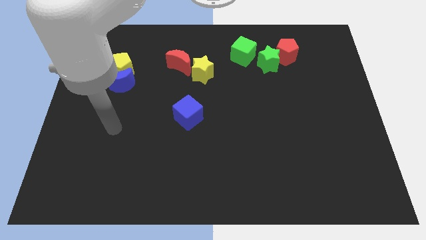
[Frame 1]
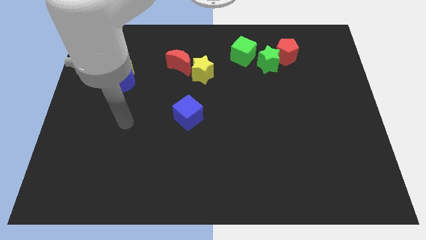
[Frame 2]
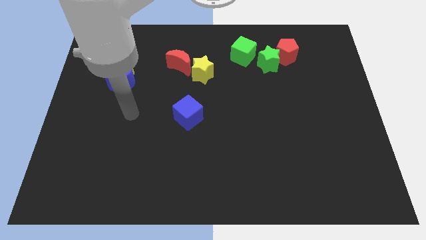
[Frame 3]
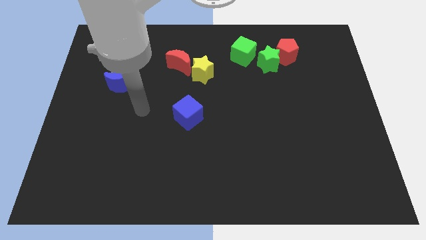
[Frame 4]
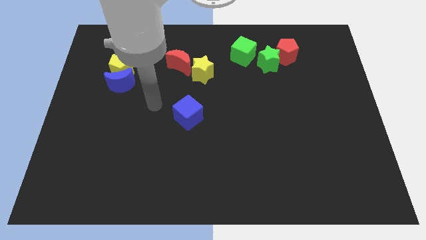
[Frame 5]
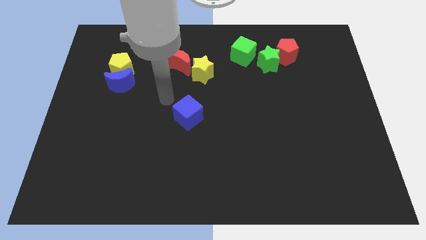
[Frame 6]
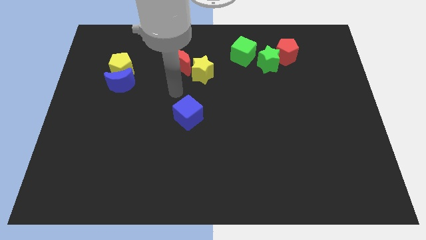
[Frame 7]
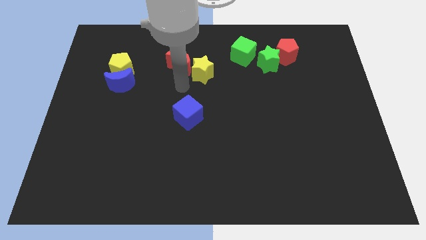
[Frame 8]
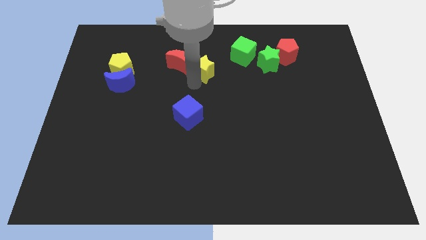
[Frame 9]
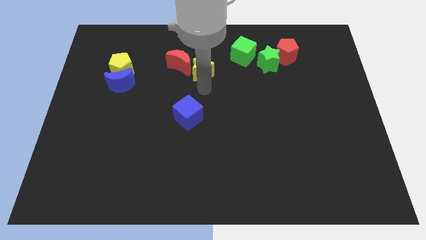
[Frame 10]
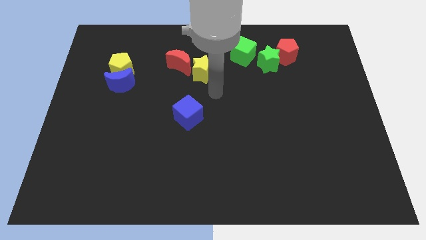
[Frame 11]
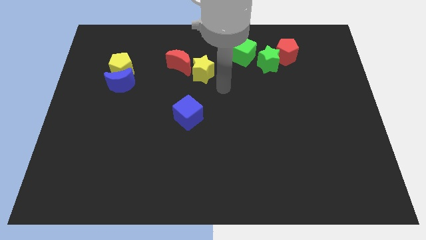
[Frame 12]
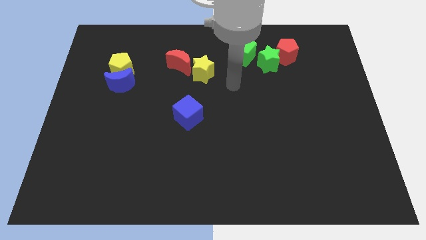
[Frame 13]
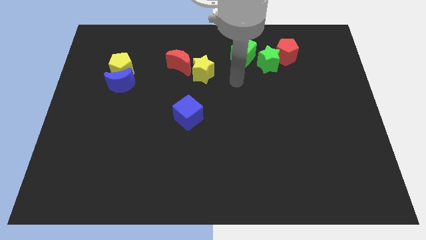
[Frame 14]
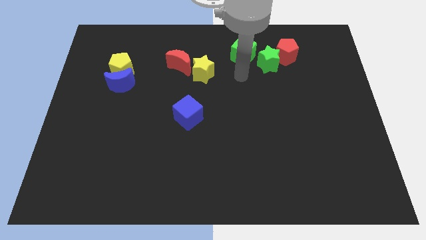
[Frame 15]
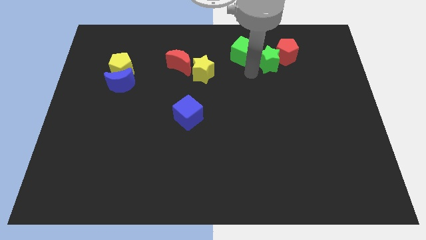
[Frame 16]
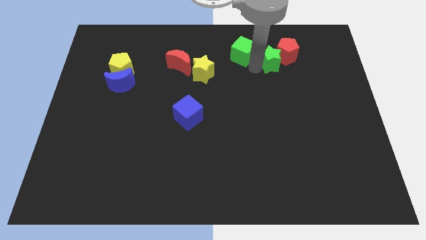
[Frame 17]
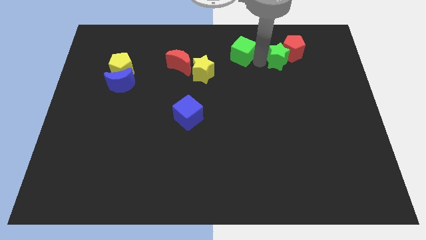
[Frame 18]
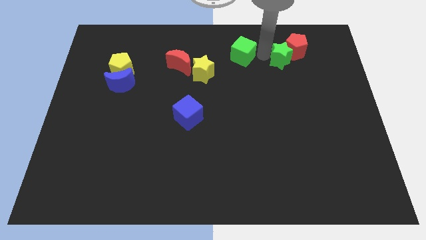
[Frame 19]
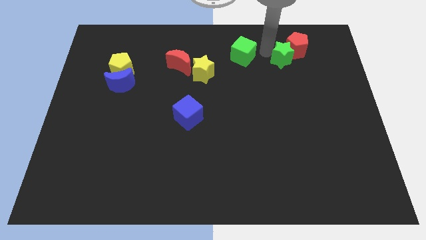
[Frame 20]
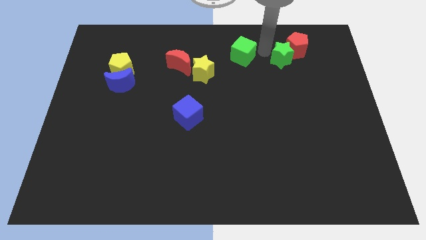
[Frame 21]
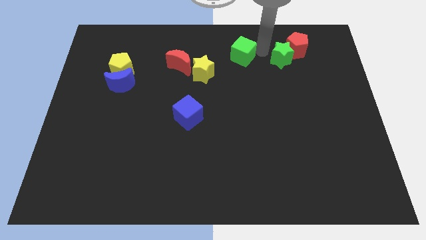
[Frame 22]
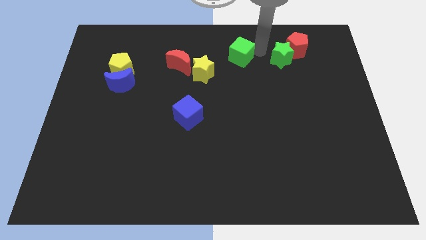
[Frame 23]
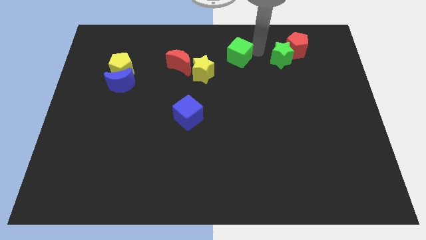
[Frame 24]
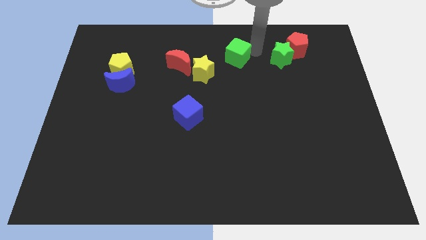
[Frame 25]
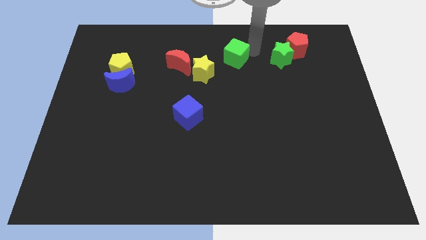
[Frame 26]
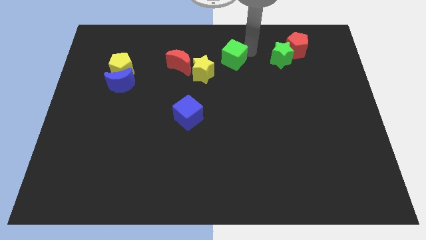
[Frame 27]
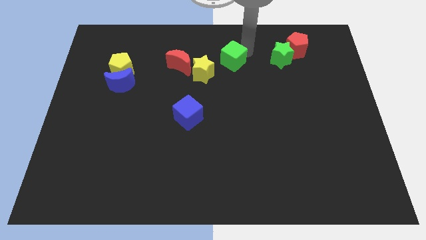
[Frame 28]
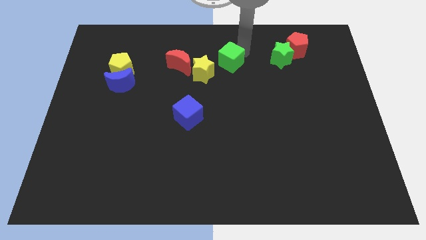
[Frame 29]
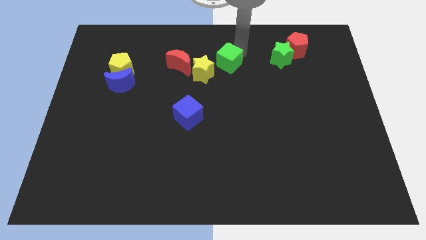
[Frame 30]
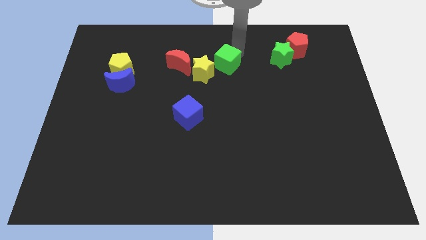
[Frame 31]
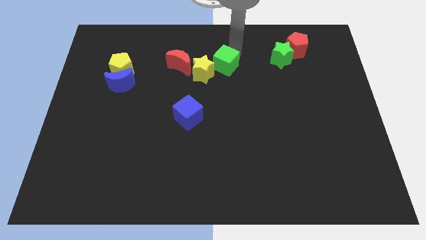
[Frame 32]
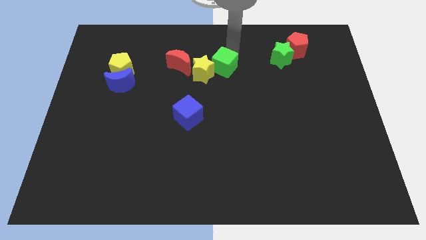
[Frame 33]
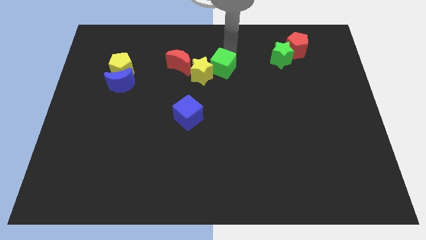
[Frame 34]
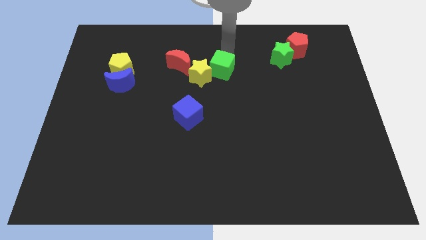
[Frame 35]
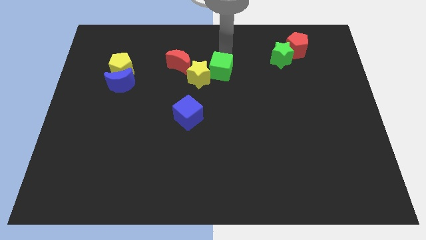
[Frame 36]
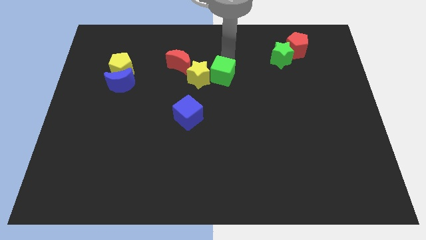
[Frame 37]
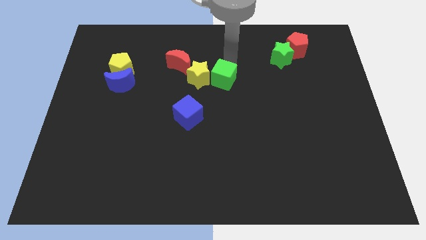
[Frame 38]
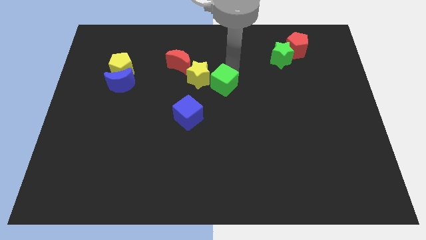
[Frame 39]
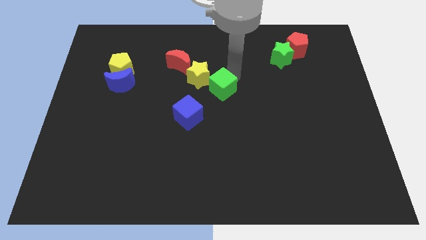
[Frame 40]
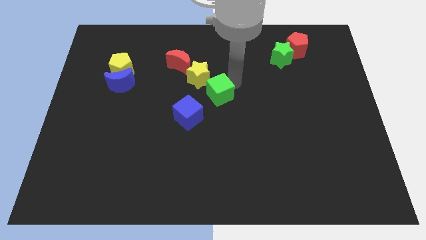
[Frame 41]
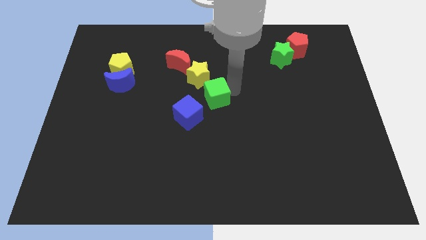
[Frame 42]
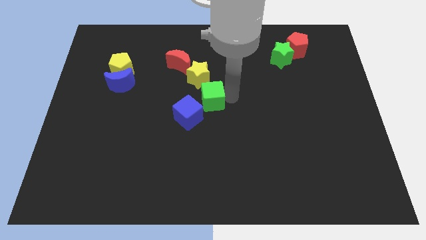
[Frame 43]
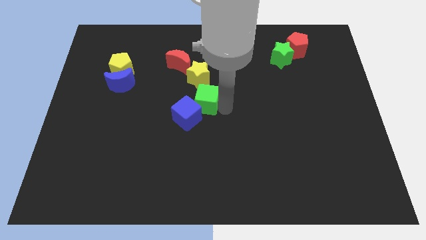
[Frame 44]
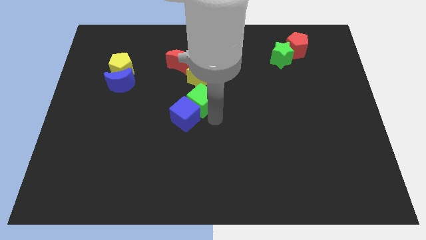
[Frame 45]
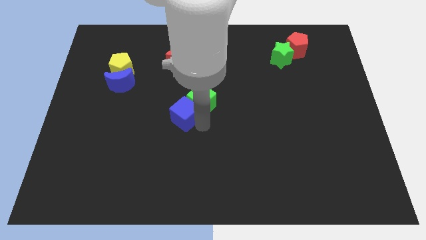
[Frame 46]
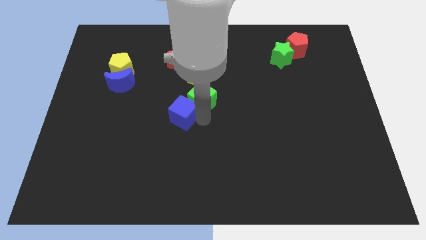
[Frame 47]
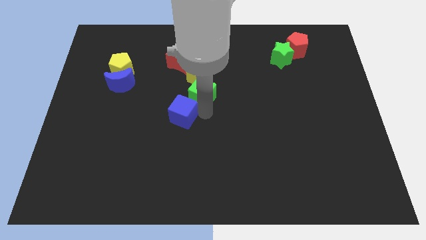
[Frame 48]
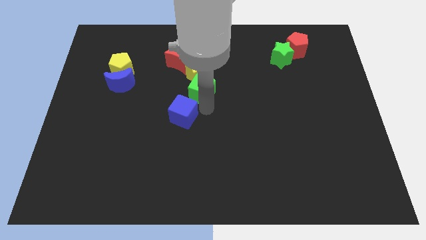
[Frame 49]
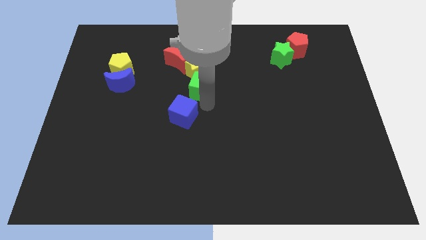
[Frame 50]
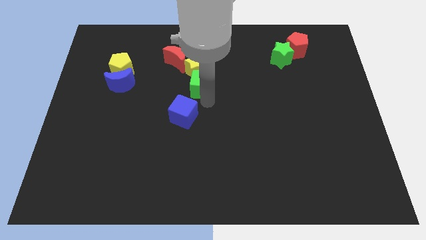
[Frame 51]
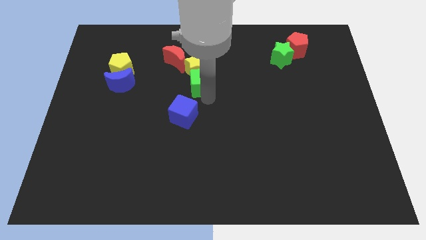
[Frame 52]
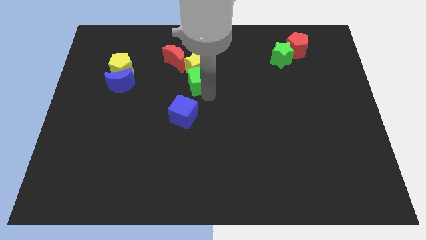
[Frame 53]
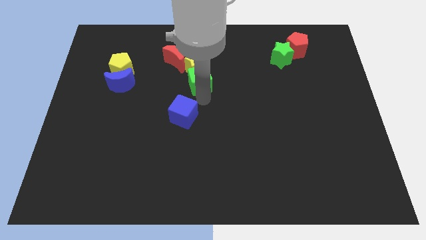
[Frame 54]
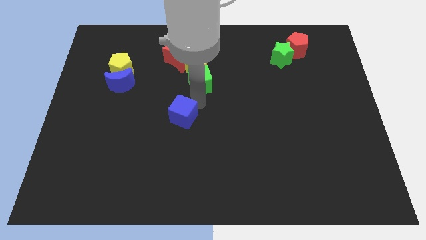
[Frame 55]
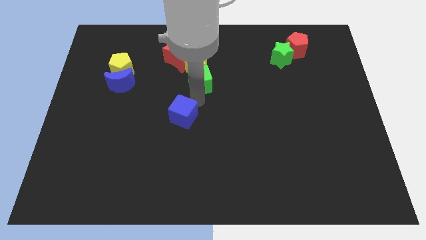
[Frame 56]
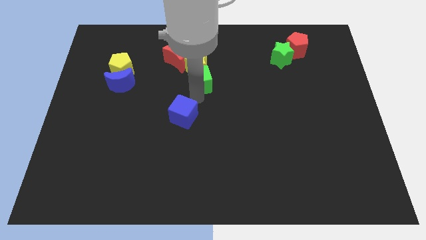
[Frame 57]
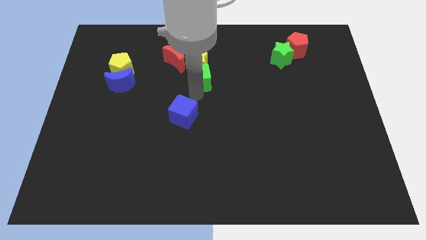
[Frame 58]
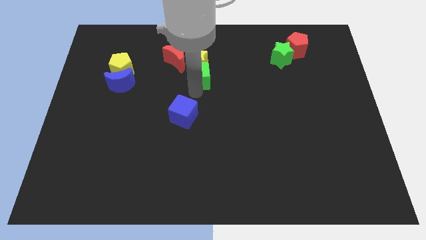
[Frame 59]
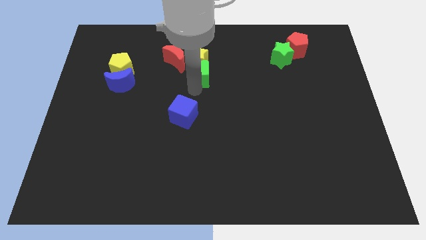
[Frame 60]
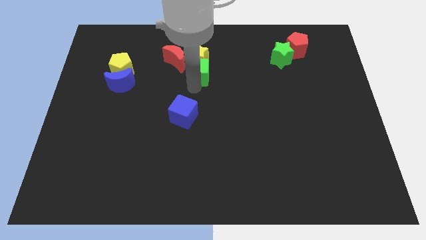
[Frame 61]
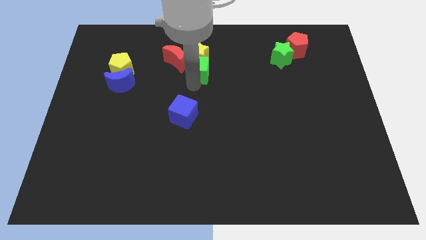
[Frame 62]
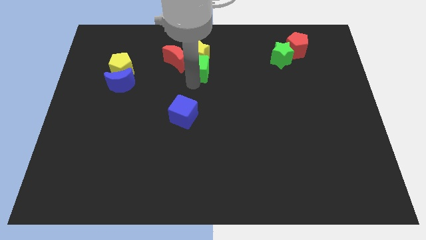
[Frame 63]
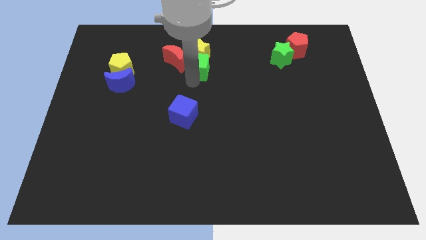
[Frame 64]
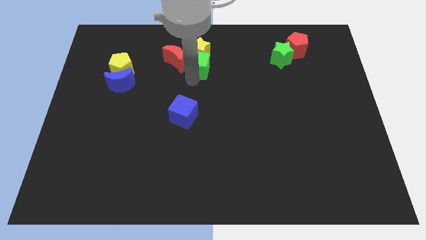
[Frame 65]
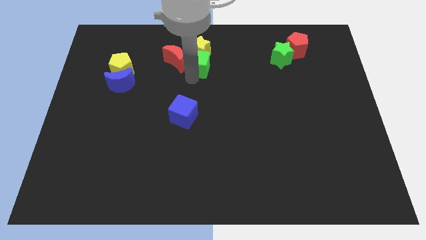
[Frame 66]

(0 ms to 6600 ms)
put the green cube towards the red moon
